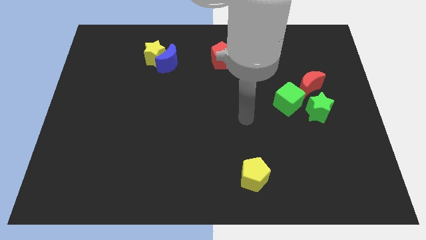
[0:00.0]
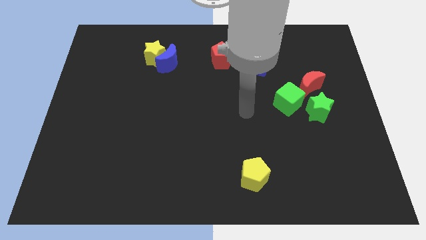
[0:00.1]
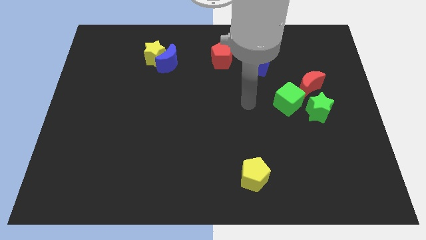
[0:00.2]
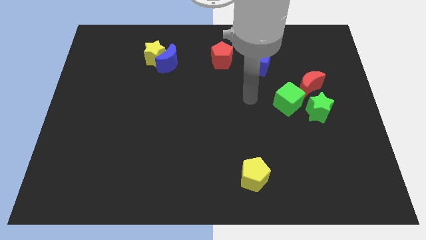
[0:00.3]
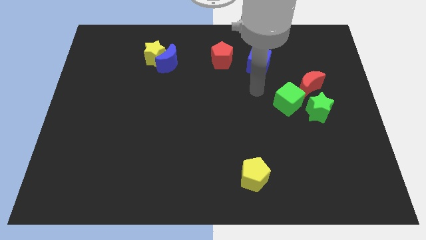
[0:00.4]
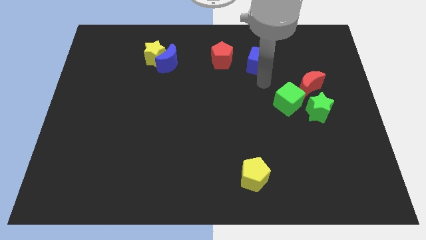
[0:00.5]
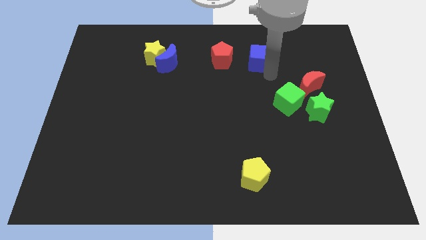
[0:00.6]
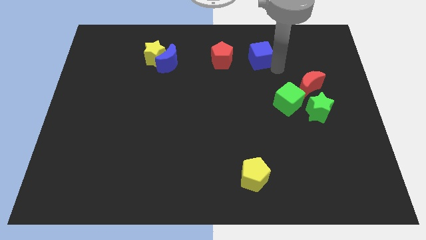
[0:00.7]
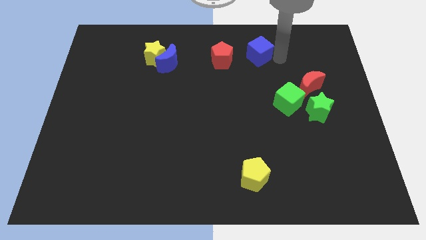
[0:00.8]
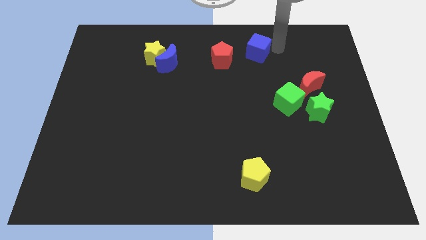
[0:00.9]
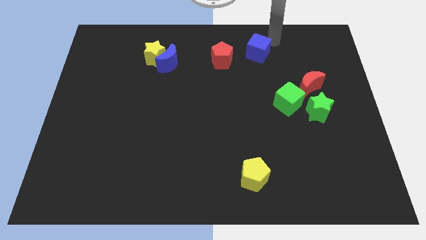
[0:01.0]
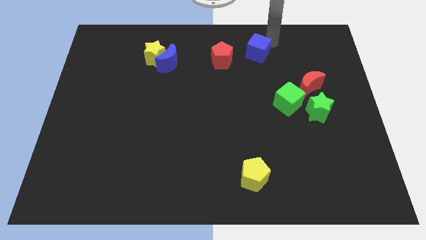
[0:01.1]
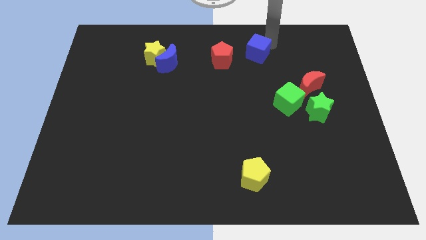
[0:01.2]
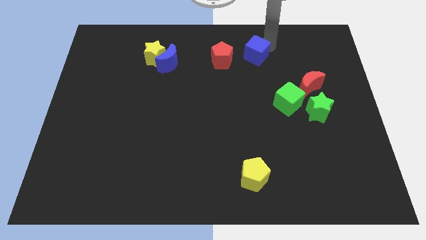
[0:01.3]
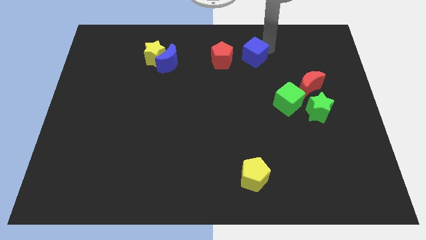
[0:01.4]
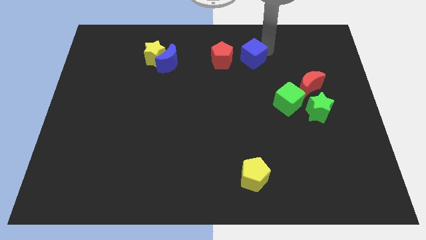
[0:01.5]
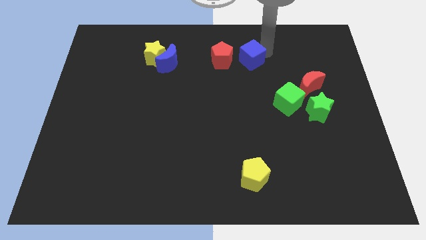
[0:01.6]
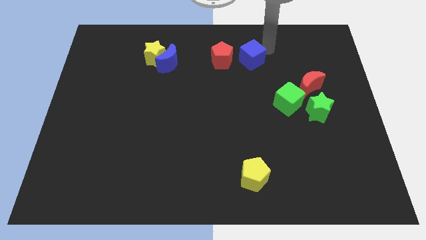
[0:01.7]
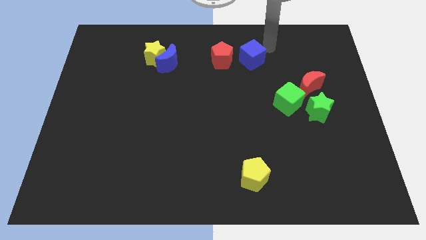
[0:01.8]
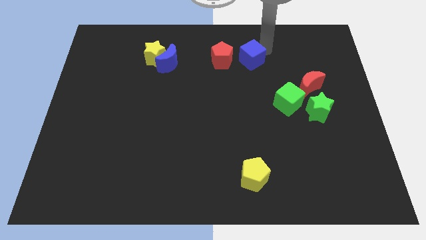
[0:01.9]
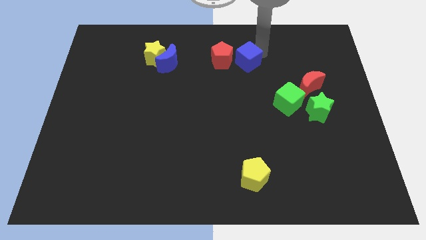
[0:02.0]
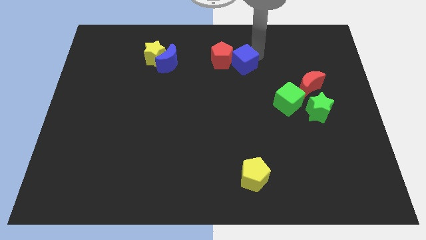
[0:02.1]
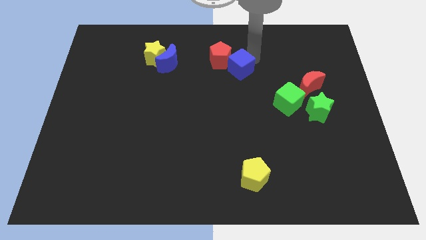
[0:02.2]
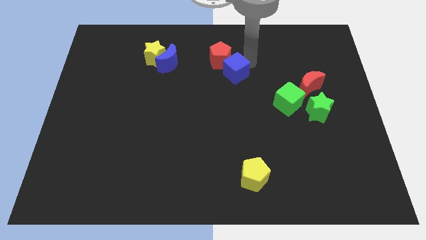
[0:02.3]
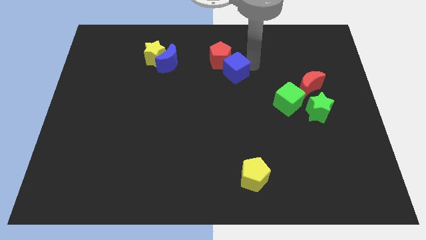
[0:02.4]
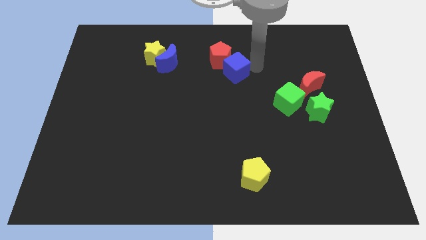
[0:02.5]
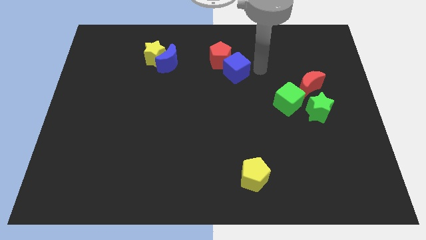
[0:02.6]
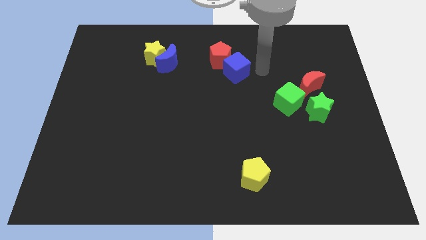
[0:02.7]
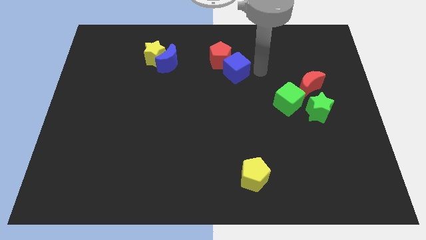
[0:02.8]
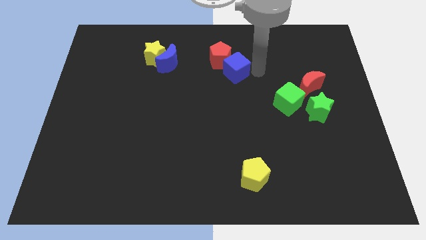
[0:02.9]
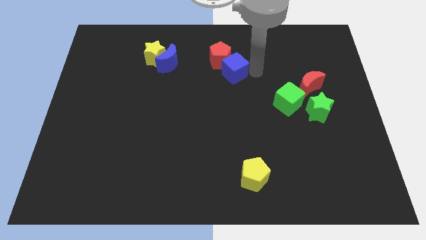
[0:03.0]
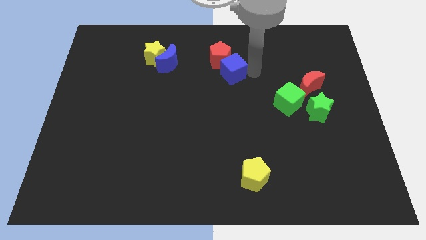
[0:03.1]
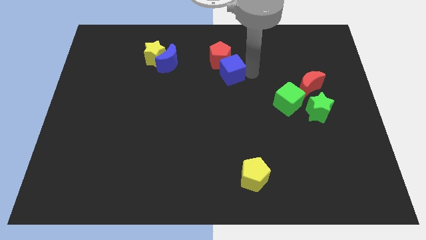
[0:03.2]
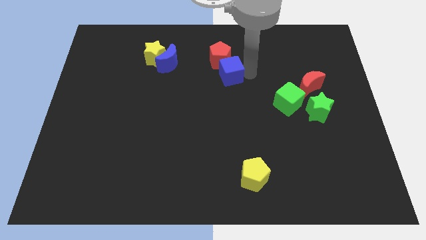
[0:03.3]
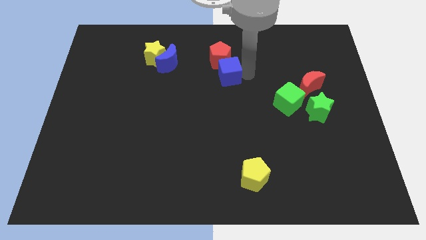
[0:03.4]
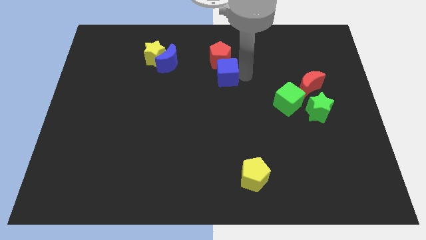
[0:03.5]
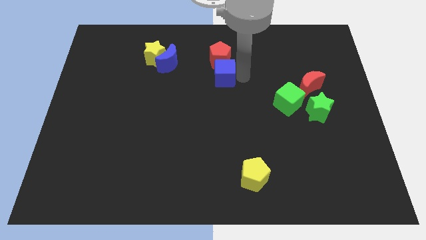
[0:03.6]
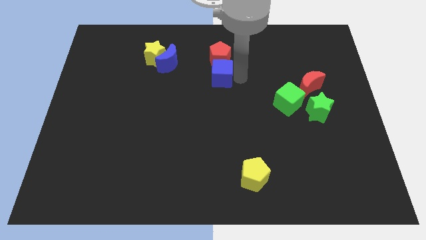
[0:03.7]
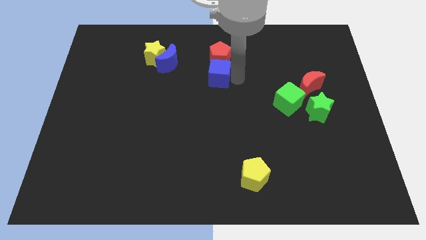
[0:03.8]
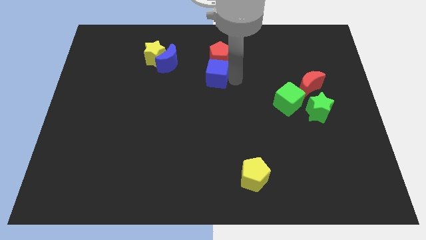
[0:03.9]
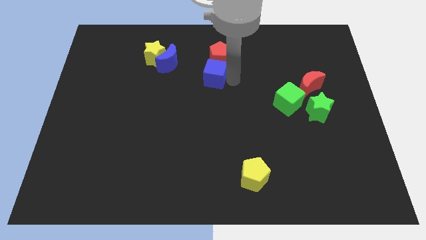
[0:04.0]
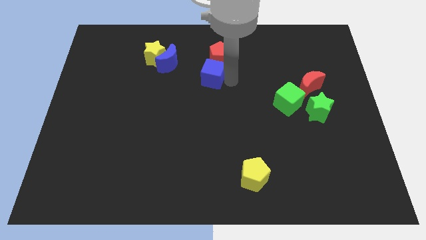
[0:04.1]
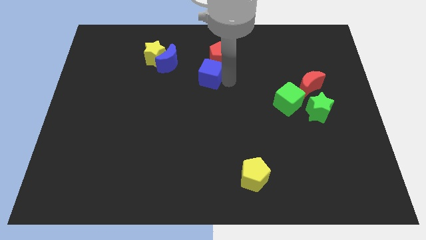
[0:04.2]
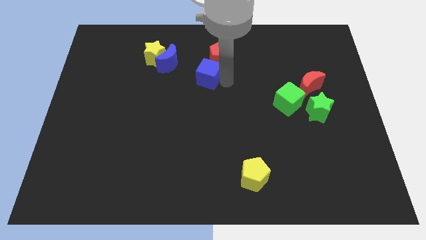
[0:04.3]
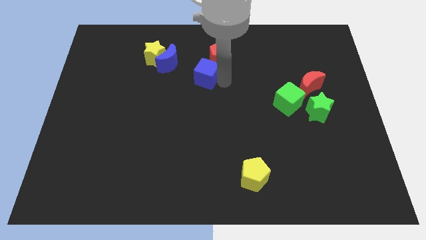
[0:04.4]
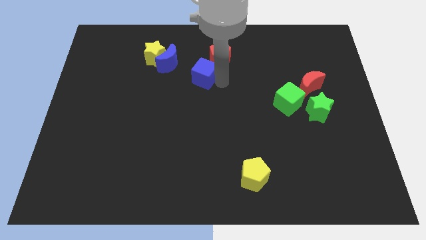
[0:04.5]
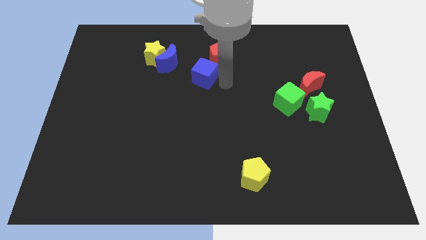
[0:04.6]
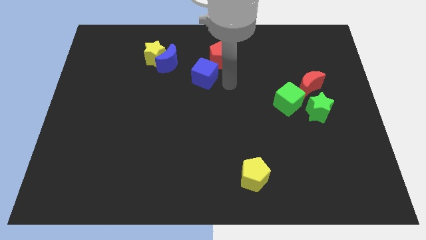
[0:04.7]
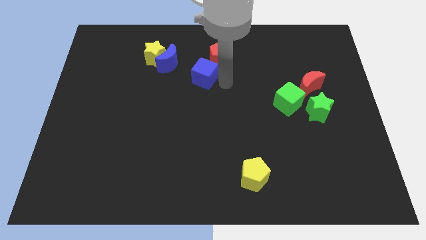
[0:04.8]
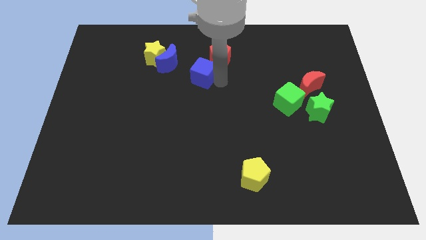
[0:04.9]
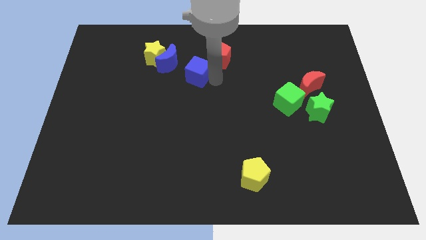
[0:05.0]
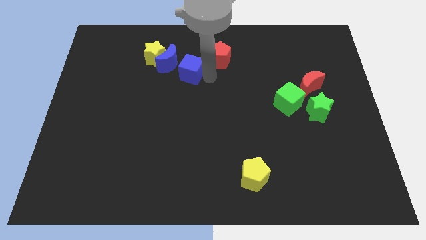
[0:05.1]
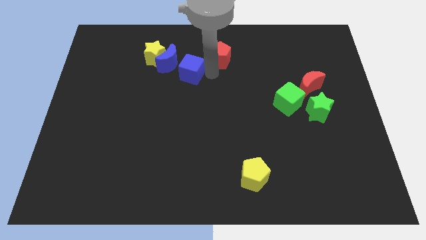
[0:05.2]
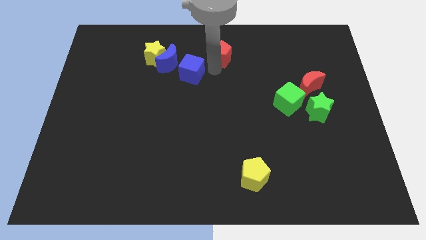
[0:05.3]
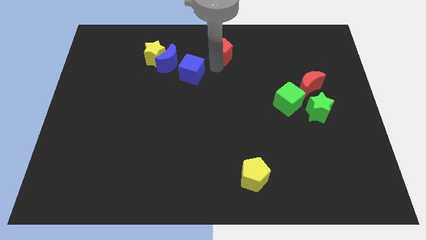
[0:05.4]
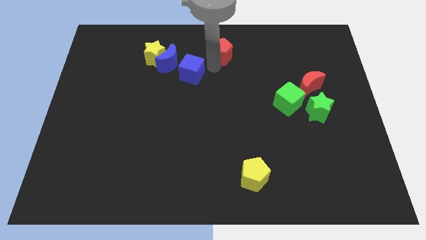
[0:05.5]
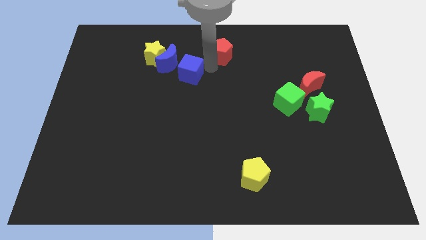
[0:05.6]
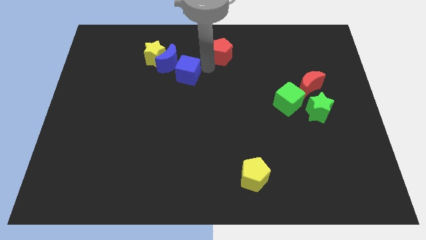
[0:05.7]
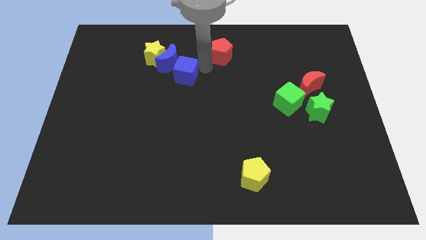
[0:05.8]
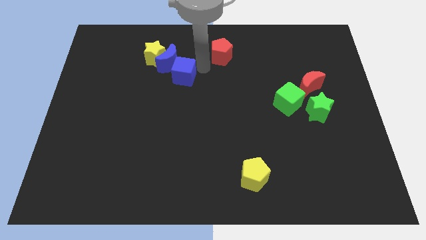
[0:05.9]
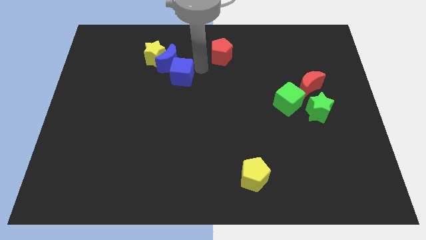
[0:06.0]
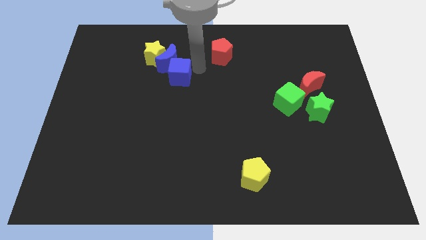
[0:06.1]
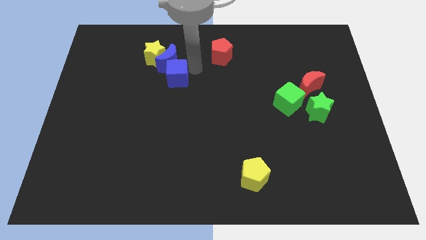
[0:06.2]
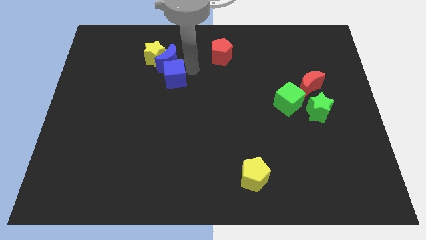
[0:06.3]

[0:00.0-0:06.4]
put the blue cube to the bottom left of the blue moon

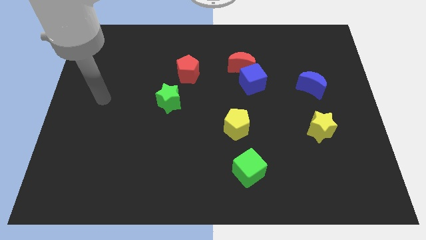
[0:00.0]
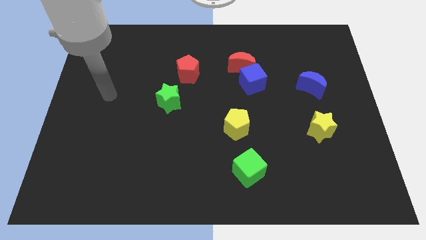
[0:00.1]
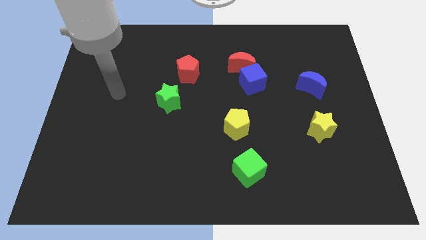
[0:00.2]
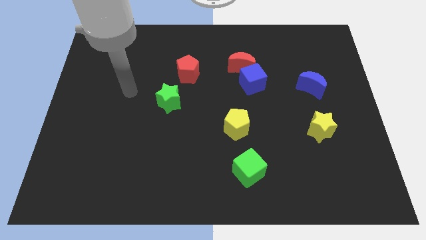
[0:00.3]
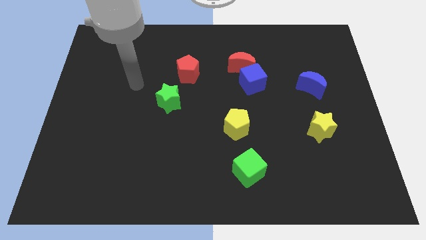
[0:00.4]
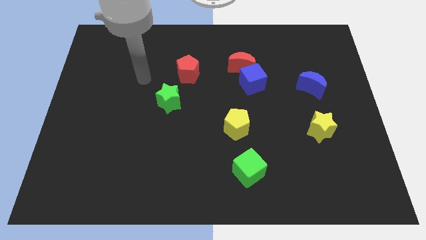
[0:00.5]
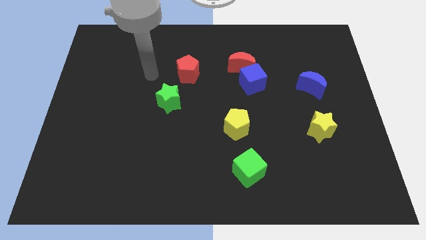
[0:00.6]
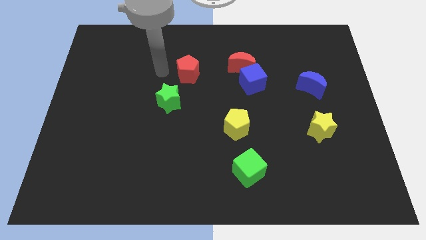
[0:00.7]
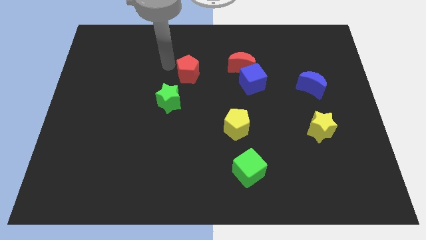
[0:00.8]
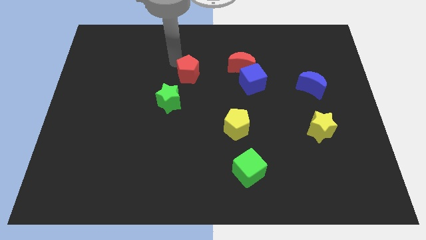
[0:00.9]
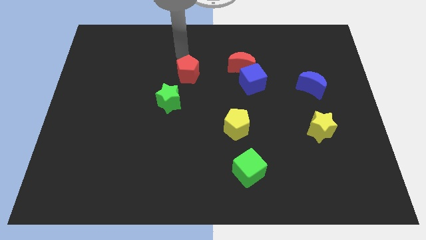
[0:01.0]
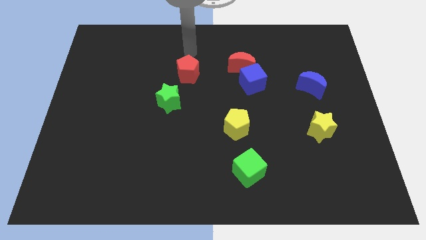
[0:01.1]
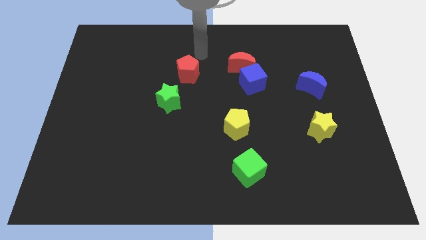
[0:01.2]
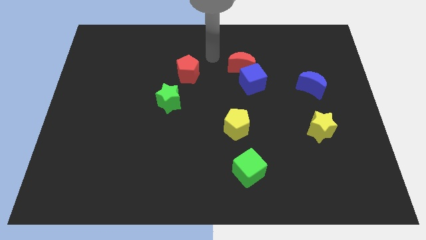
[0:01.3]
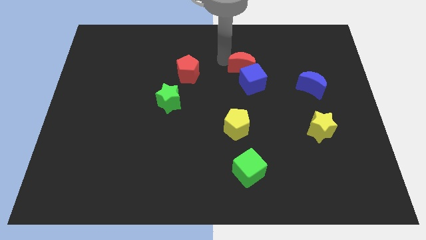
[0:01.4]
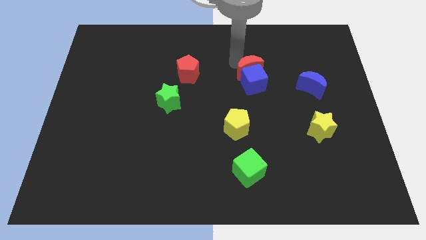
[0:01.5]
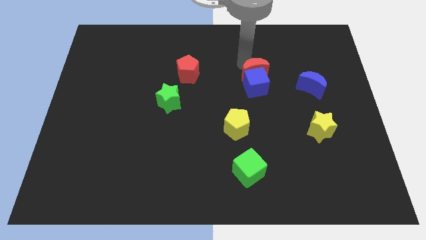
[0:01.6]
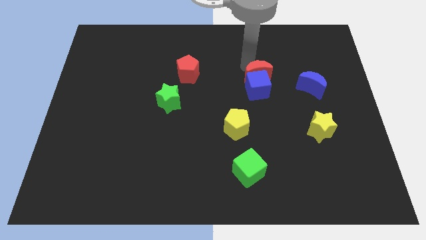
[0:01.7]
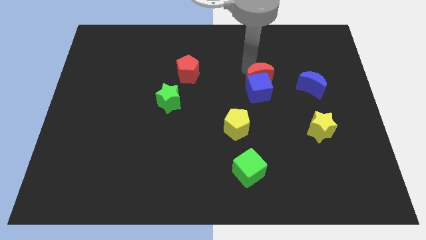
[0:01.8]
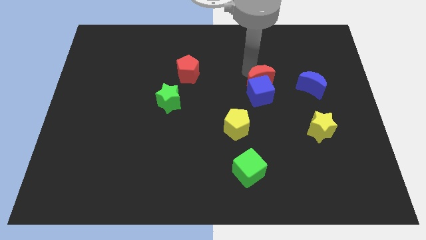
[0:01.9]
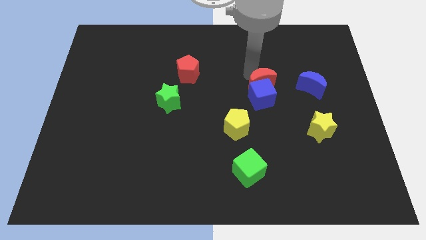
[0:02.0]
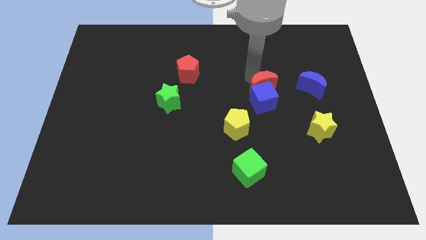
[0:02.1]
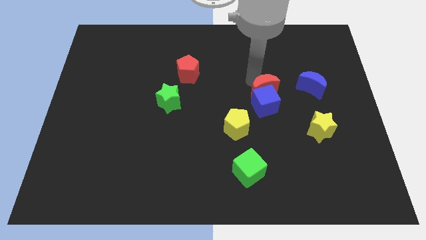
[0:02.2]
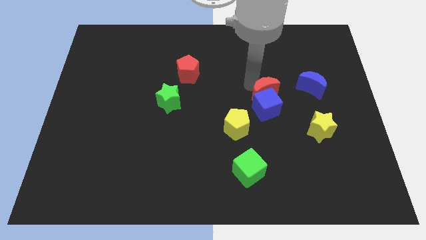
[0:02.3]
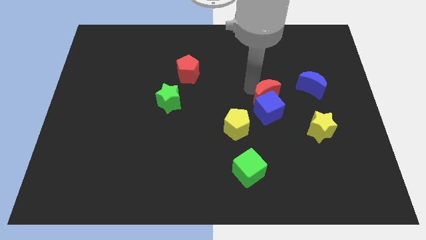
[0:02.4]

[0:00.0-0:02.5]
slide the blue cube right of the yellow pentagon
